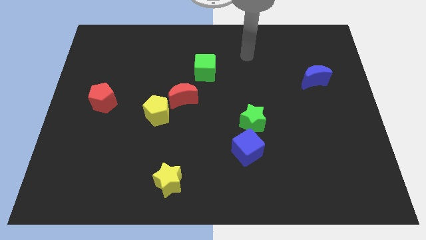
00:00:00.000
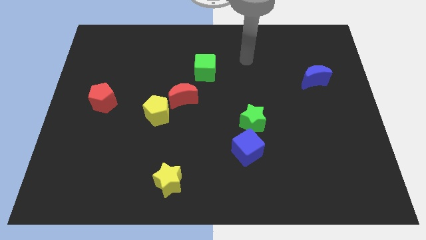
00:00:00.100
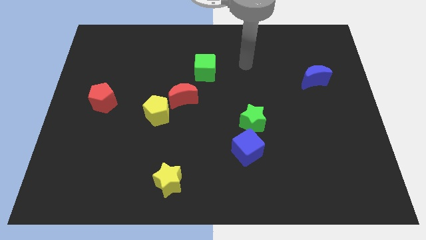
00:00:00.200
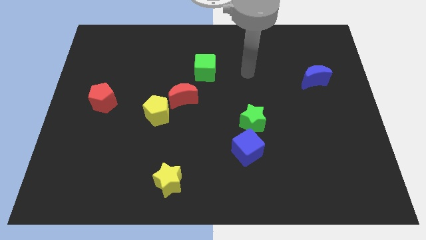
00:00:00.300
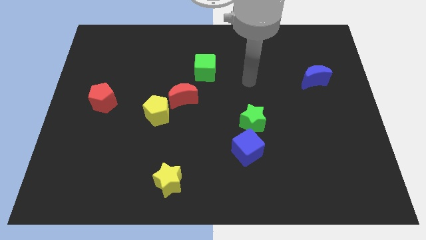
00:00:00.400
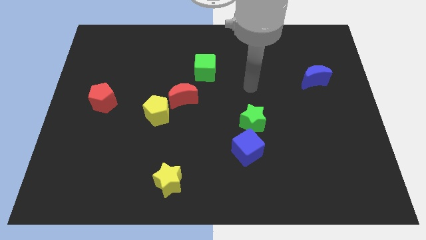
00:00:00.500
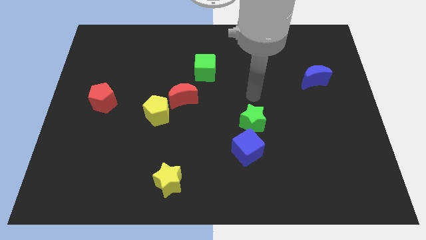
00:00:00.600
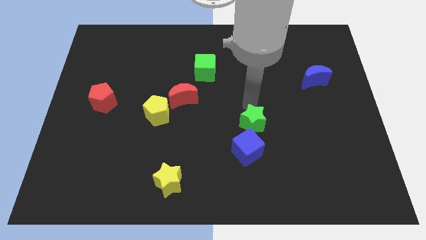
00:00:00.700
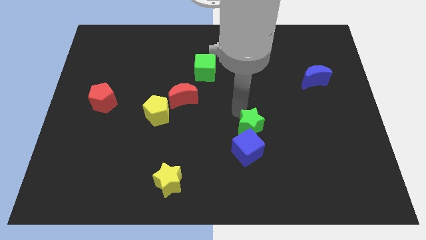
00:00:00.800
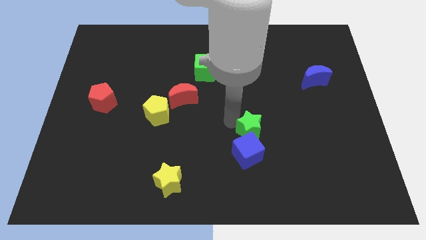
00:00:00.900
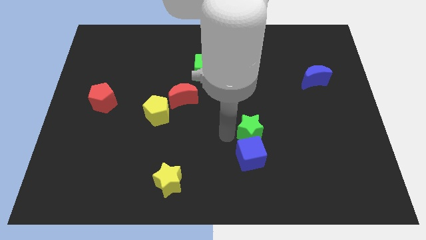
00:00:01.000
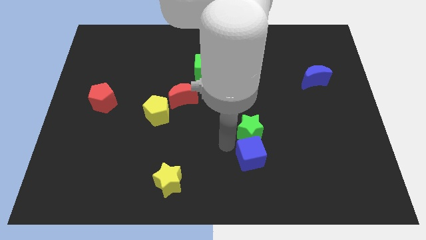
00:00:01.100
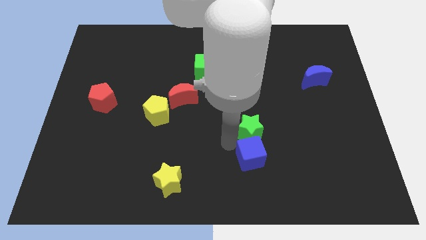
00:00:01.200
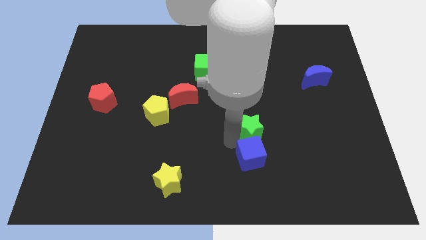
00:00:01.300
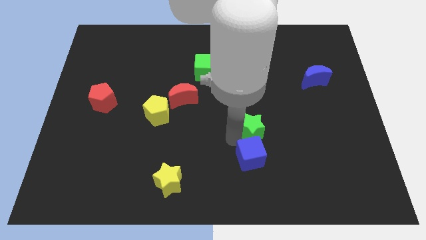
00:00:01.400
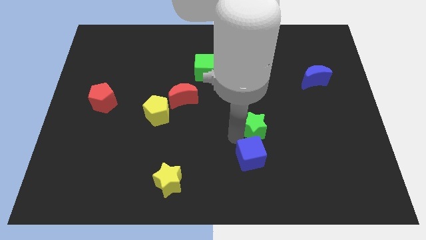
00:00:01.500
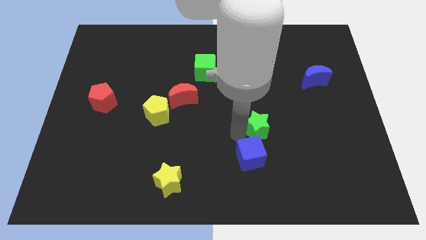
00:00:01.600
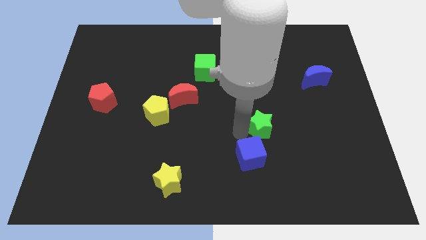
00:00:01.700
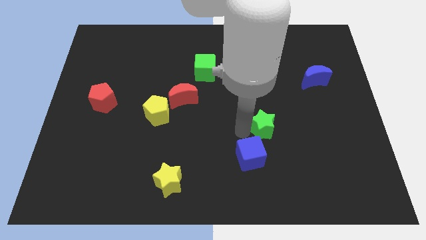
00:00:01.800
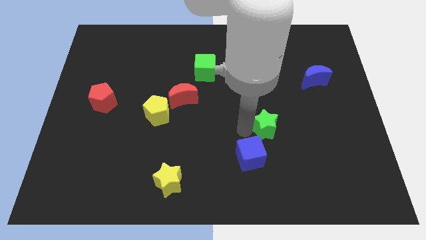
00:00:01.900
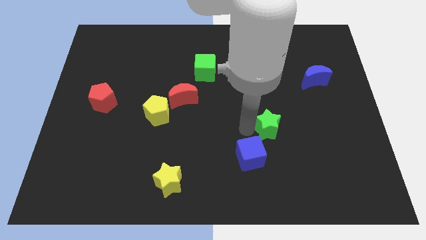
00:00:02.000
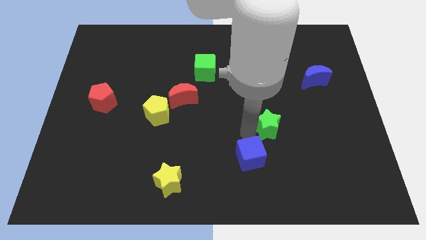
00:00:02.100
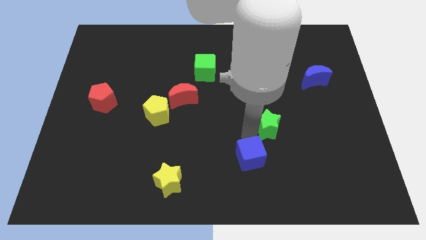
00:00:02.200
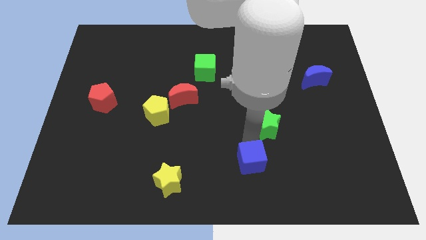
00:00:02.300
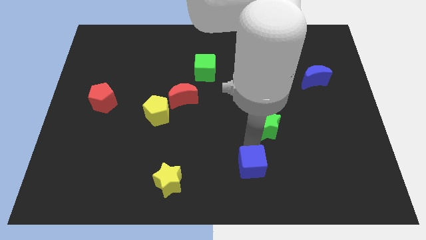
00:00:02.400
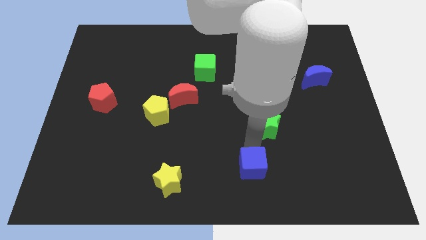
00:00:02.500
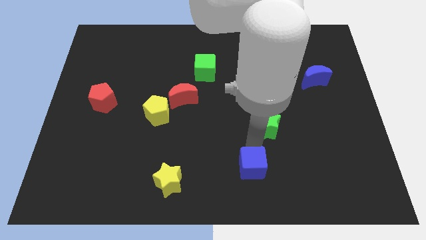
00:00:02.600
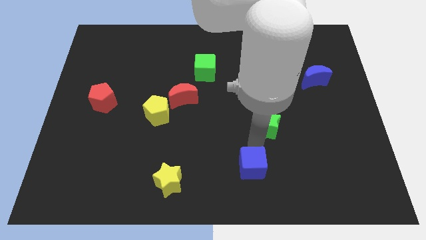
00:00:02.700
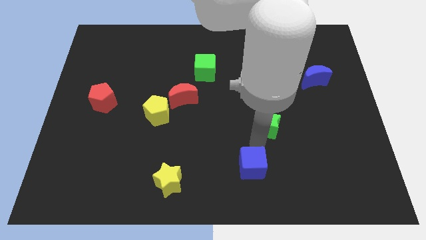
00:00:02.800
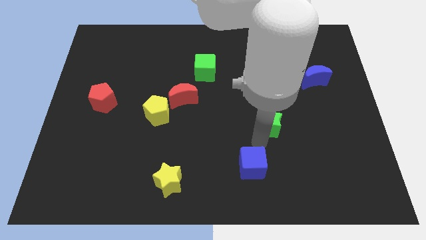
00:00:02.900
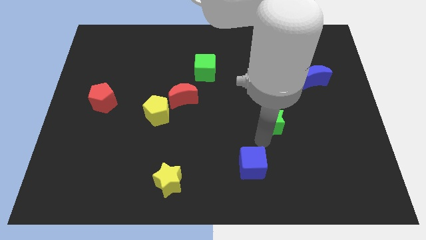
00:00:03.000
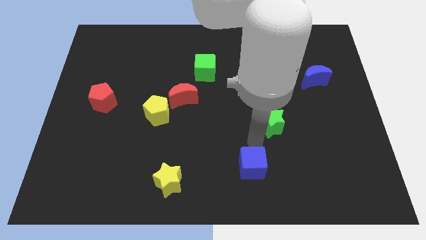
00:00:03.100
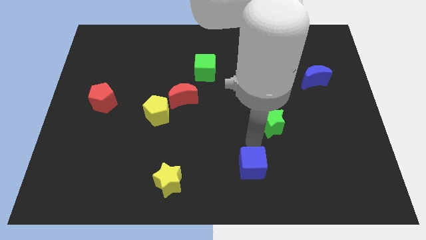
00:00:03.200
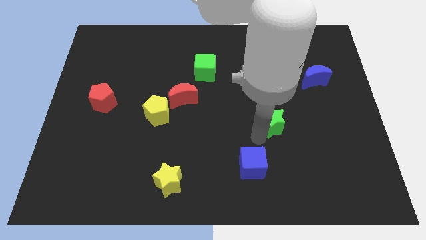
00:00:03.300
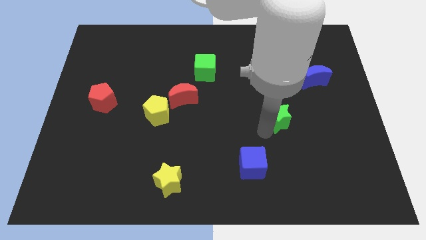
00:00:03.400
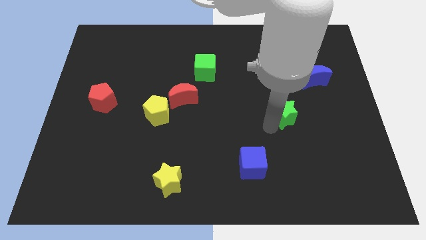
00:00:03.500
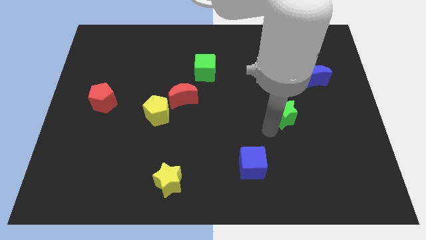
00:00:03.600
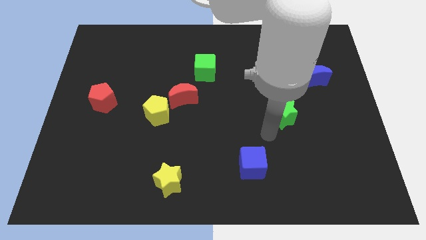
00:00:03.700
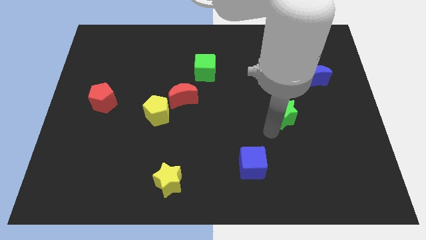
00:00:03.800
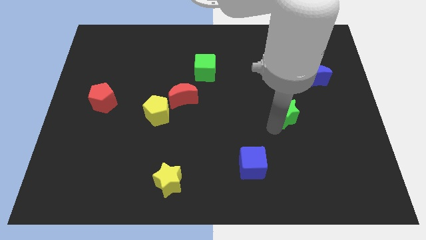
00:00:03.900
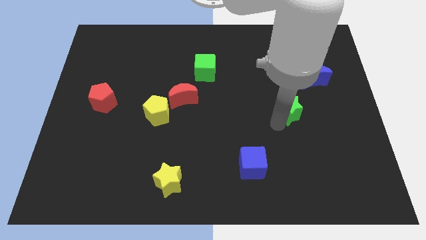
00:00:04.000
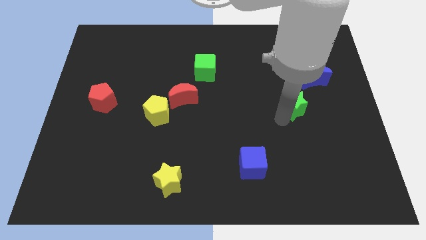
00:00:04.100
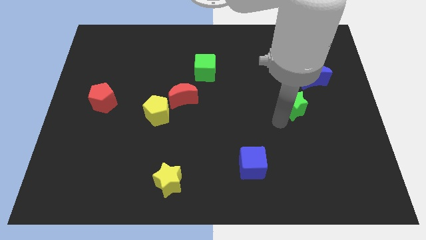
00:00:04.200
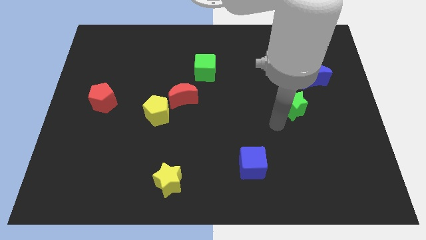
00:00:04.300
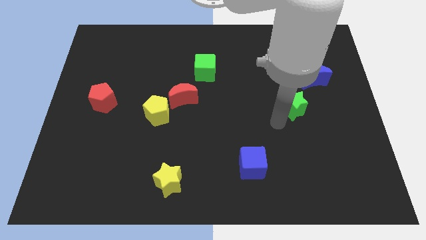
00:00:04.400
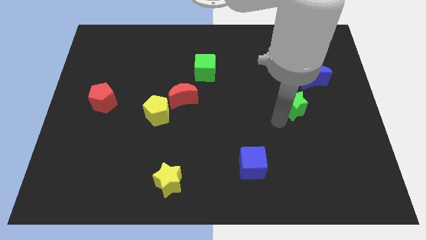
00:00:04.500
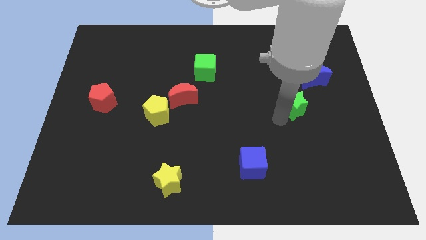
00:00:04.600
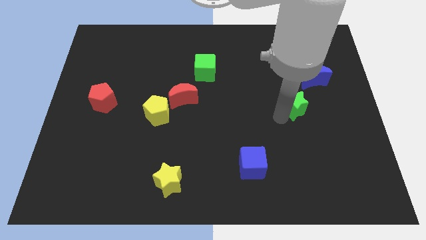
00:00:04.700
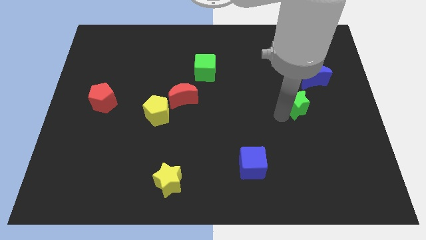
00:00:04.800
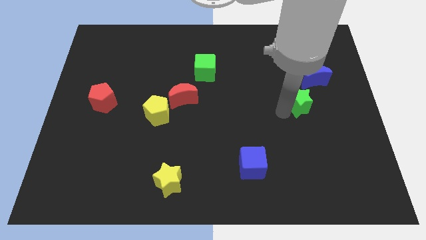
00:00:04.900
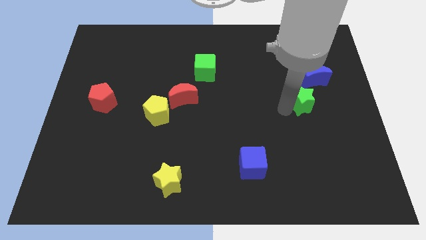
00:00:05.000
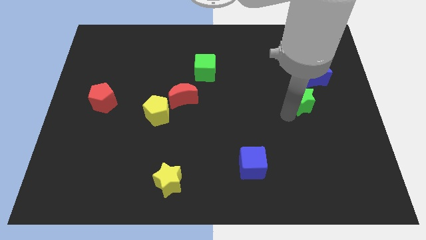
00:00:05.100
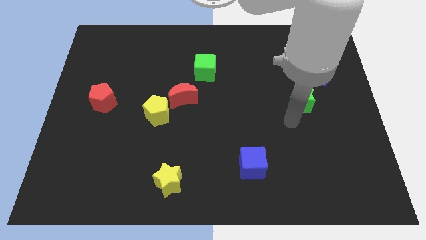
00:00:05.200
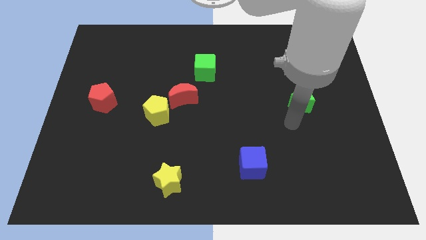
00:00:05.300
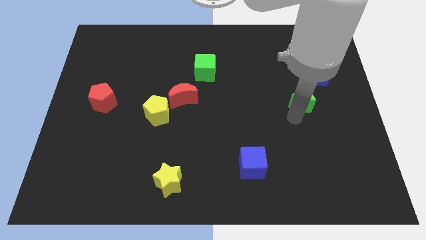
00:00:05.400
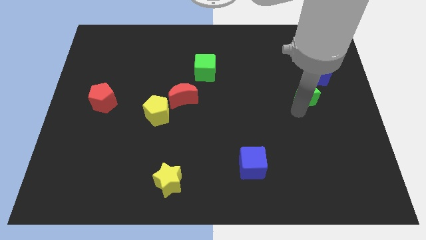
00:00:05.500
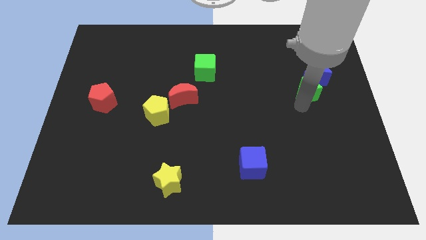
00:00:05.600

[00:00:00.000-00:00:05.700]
push the green star to the blue moon

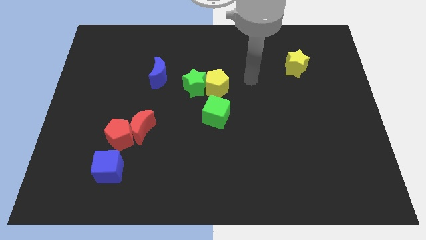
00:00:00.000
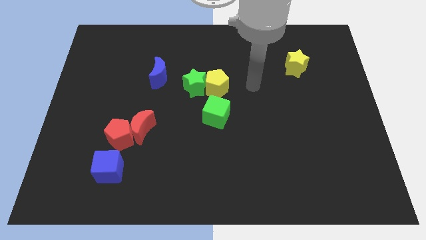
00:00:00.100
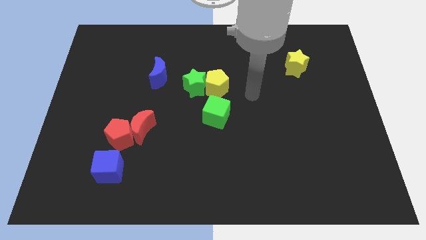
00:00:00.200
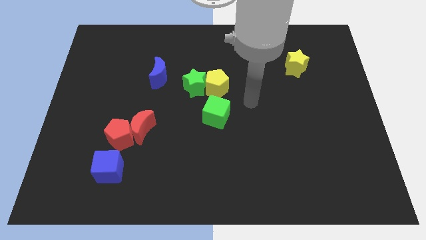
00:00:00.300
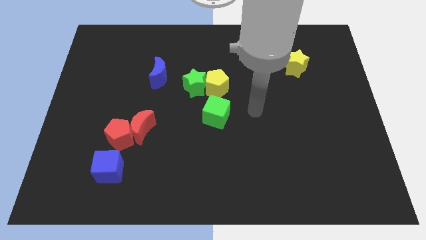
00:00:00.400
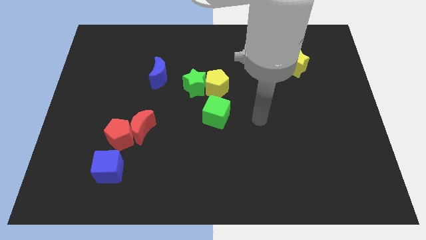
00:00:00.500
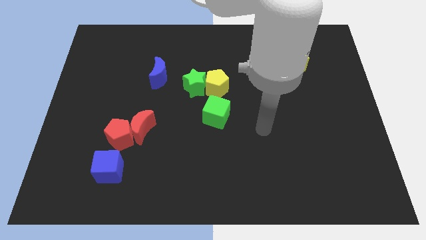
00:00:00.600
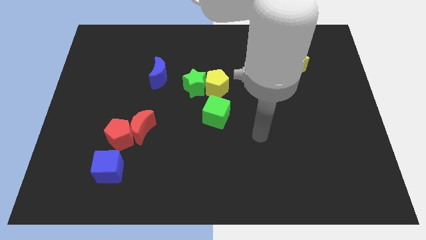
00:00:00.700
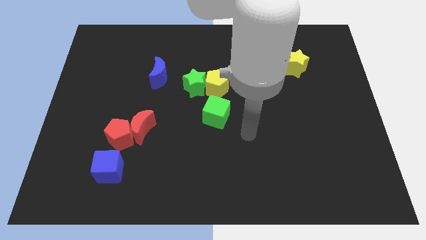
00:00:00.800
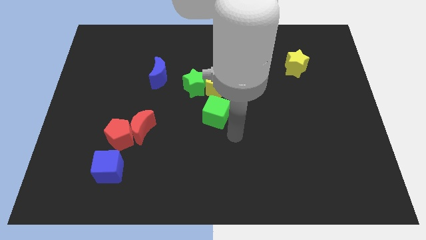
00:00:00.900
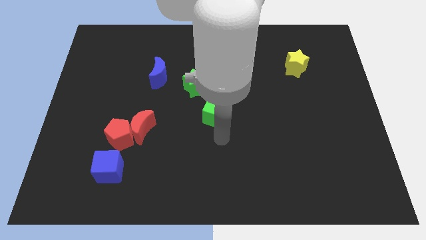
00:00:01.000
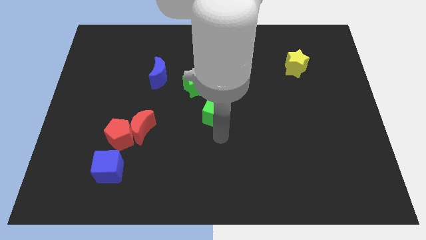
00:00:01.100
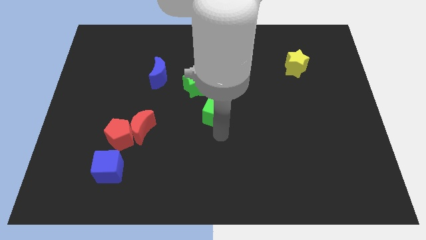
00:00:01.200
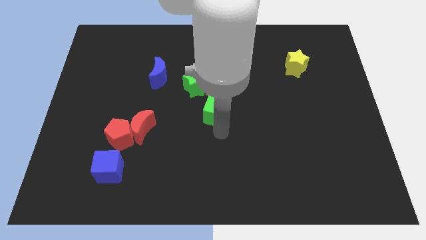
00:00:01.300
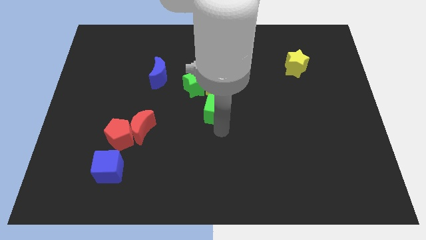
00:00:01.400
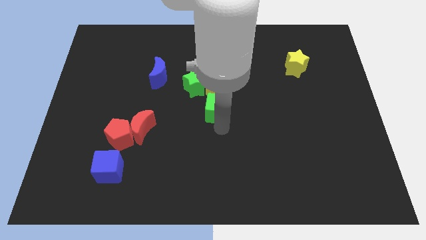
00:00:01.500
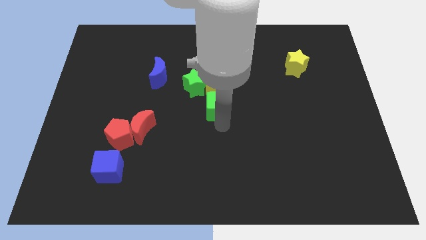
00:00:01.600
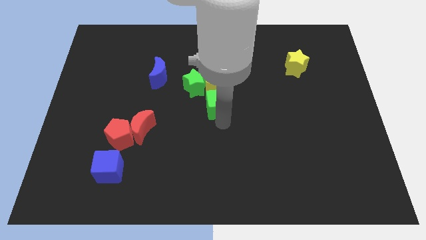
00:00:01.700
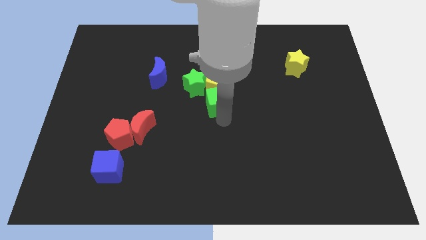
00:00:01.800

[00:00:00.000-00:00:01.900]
put the green cube next to the yellow pentagon
